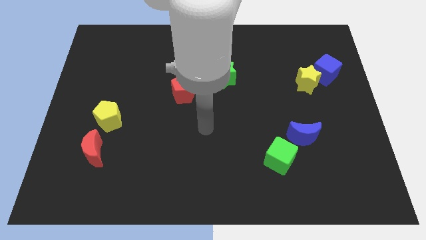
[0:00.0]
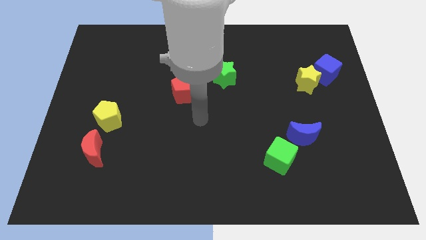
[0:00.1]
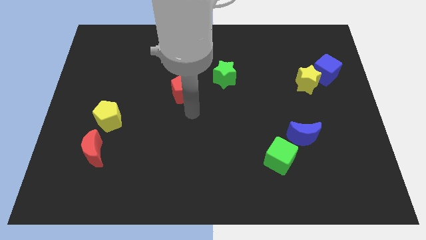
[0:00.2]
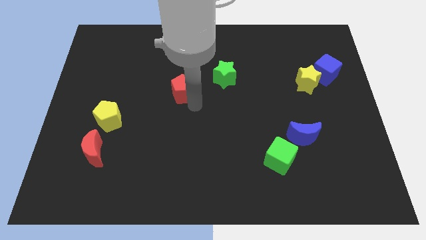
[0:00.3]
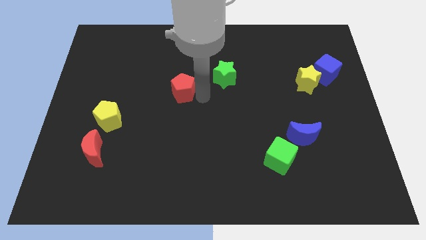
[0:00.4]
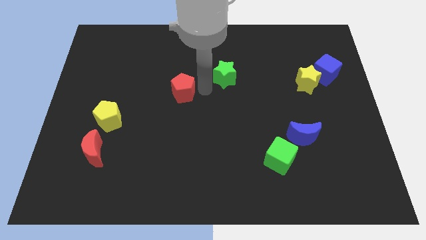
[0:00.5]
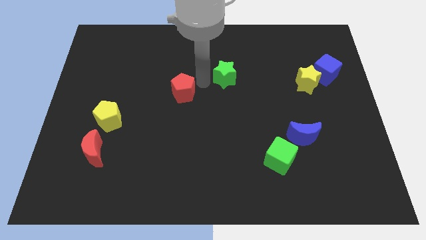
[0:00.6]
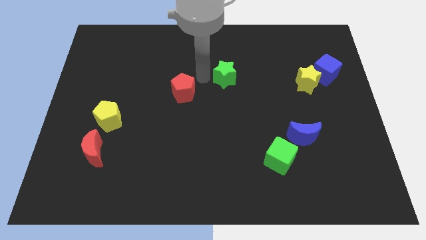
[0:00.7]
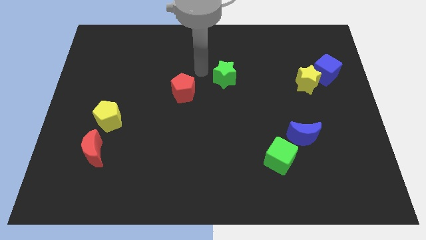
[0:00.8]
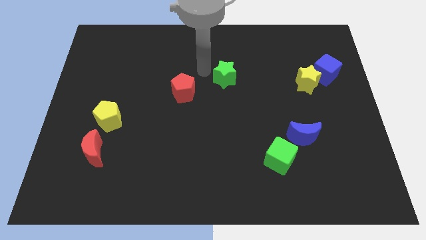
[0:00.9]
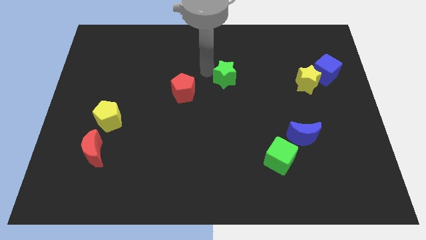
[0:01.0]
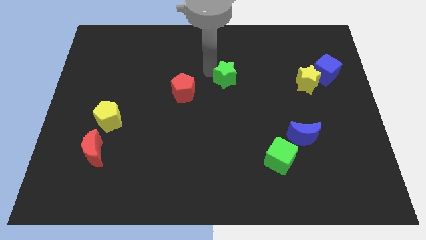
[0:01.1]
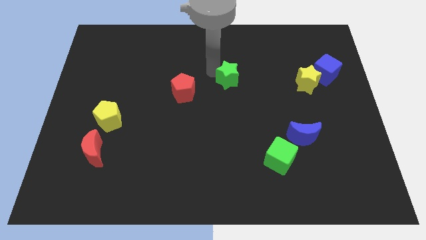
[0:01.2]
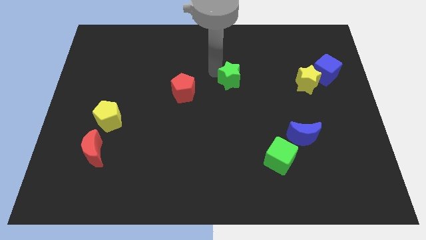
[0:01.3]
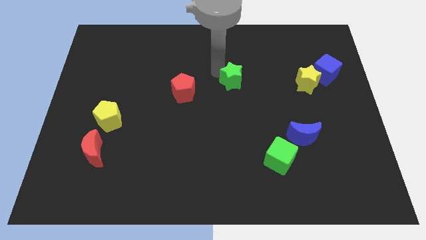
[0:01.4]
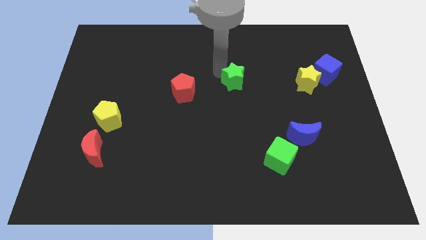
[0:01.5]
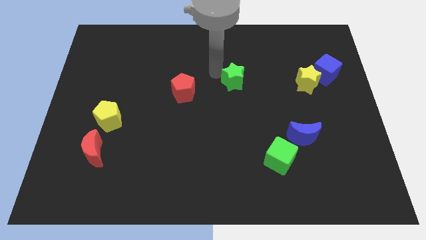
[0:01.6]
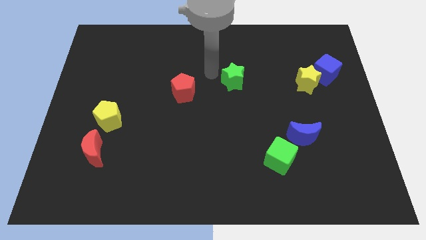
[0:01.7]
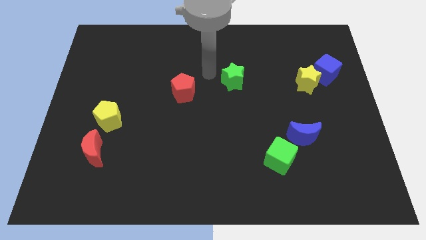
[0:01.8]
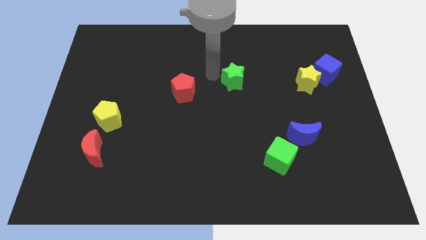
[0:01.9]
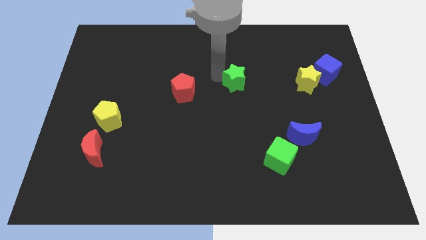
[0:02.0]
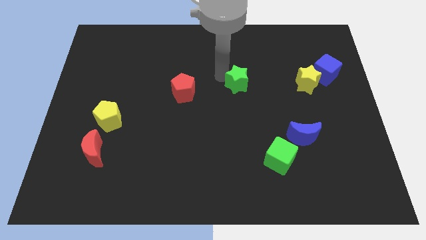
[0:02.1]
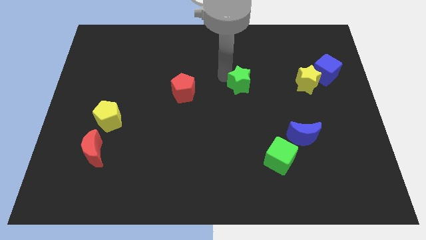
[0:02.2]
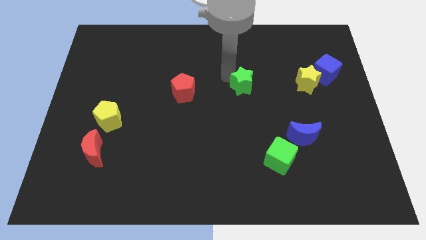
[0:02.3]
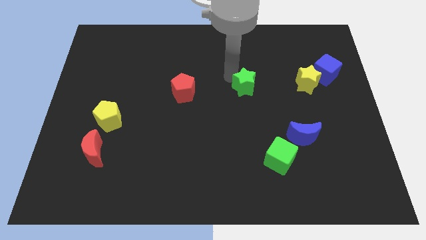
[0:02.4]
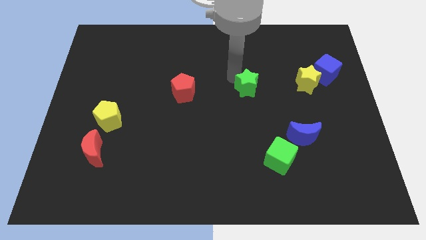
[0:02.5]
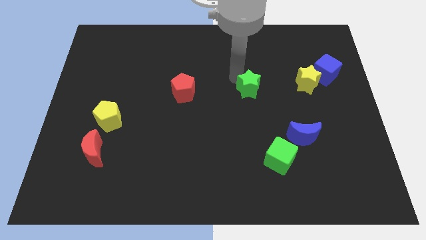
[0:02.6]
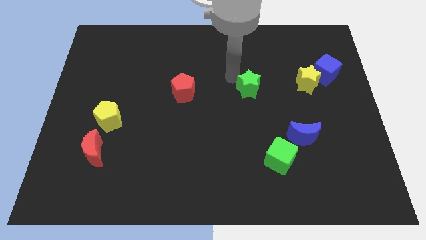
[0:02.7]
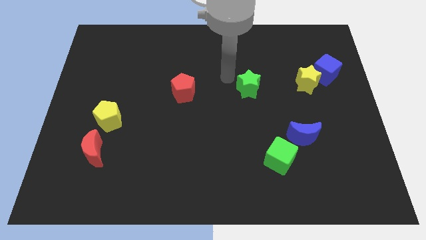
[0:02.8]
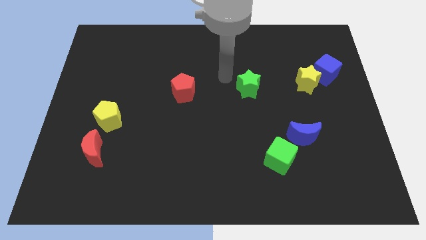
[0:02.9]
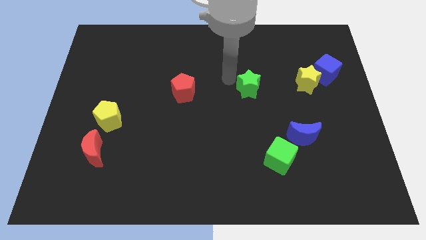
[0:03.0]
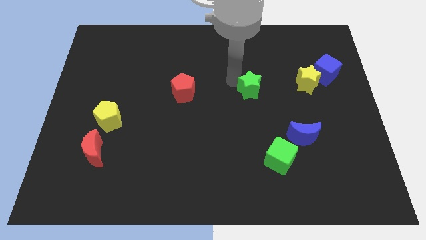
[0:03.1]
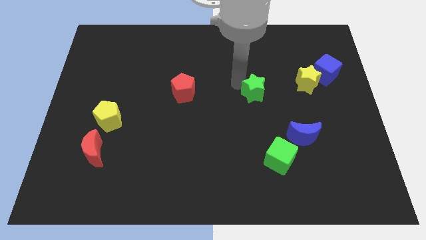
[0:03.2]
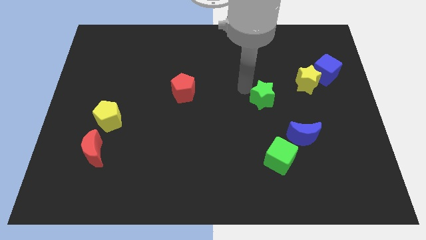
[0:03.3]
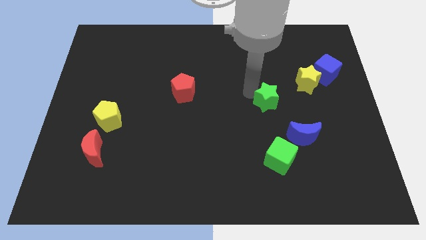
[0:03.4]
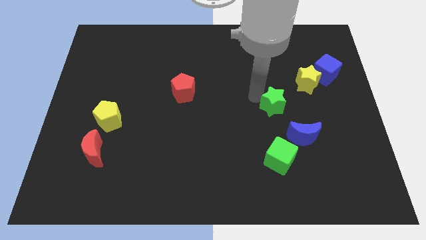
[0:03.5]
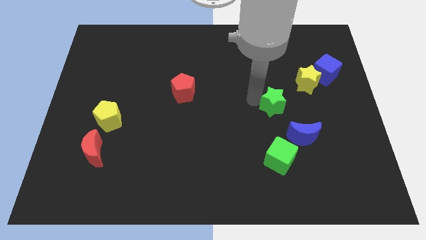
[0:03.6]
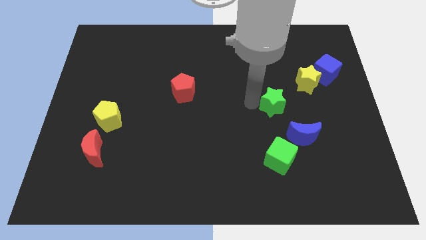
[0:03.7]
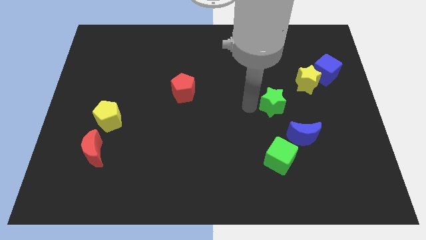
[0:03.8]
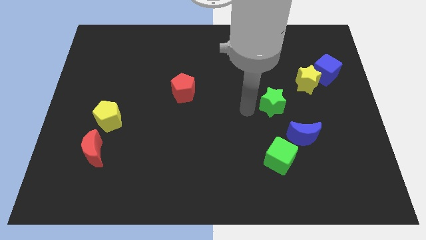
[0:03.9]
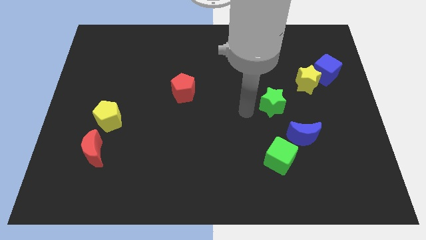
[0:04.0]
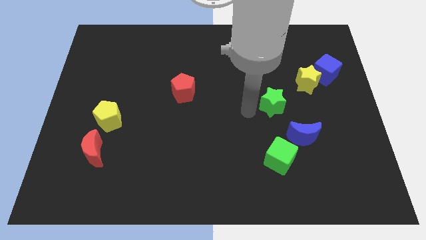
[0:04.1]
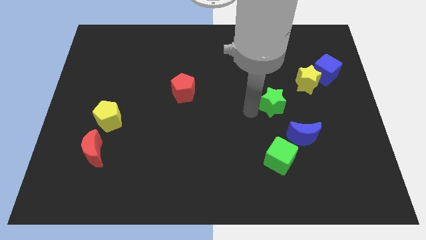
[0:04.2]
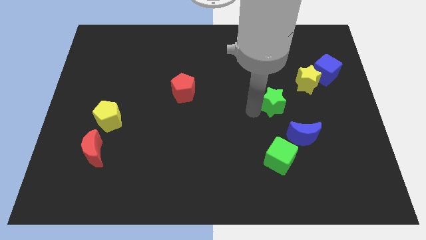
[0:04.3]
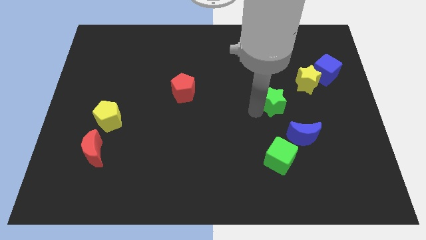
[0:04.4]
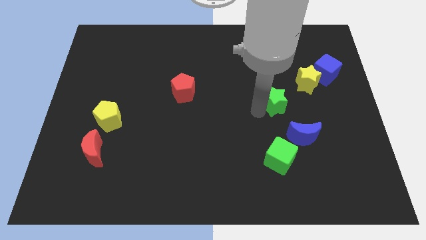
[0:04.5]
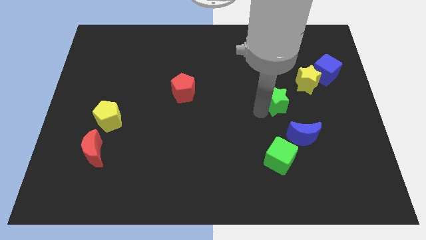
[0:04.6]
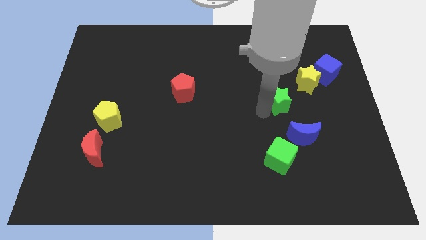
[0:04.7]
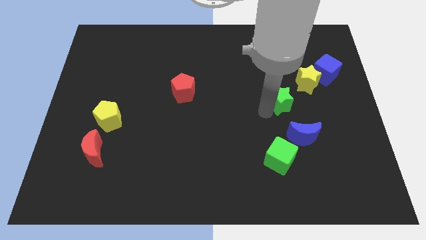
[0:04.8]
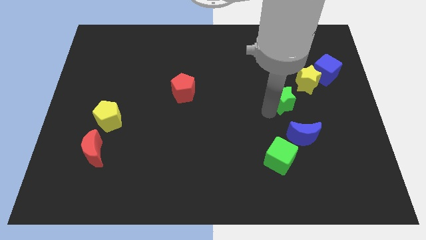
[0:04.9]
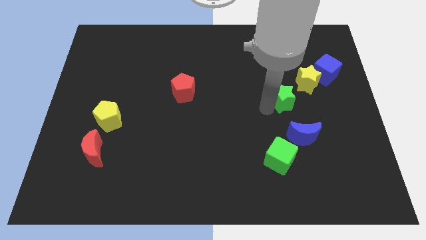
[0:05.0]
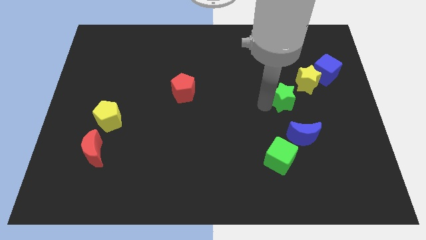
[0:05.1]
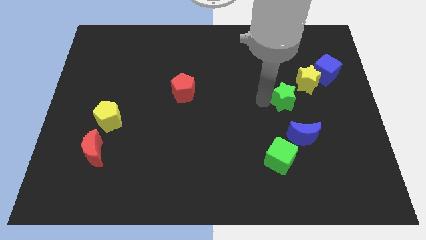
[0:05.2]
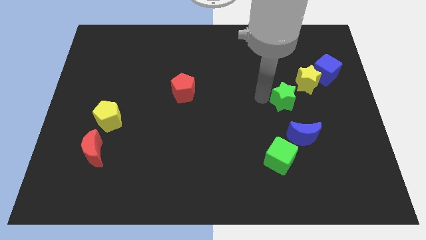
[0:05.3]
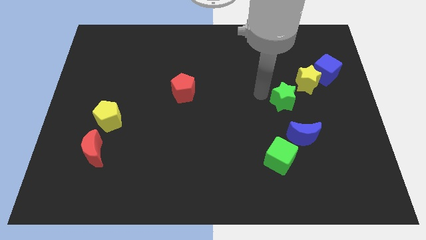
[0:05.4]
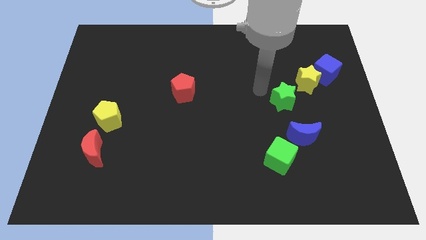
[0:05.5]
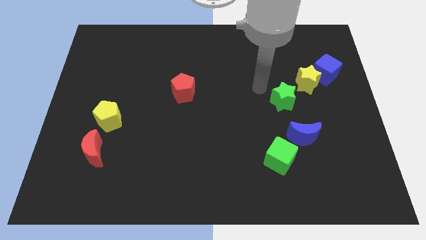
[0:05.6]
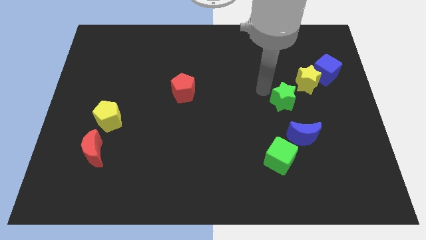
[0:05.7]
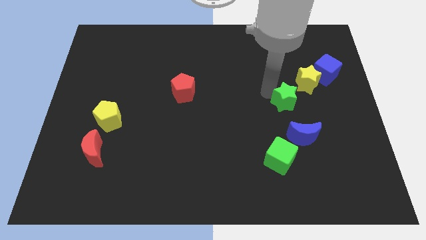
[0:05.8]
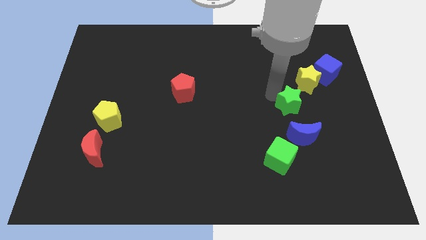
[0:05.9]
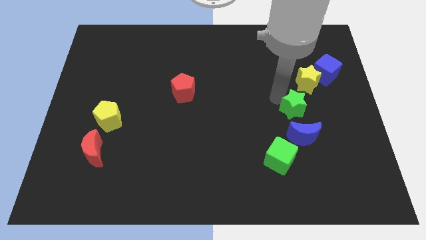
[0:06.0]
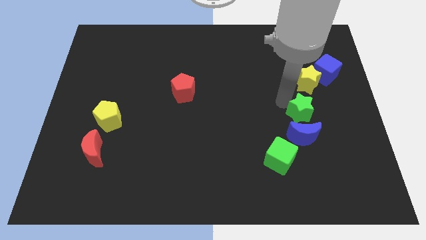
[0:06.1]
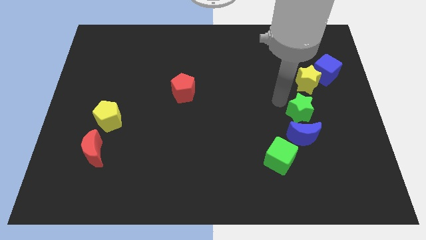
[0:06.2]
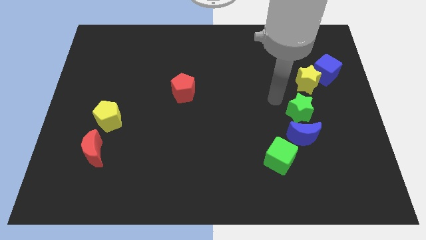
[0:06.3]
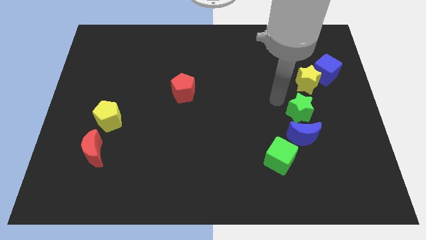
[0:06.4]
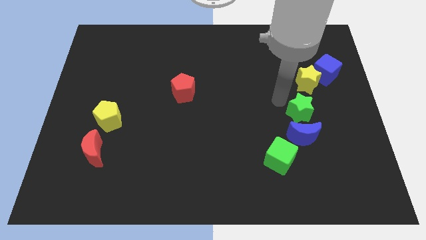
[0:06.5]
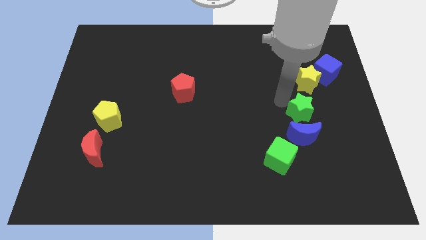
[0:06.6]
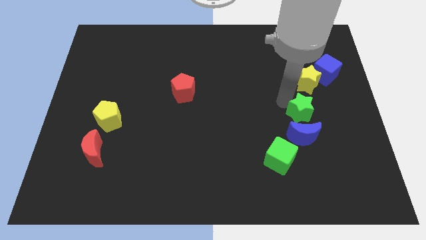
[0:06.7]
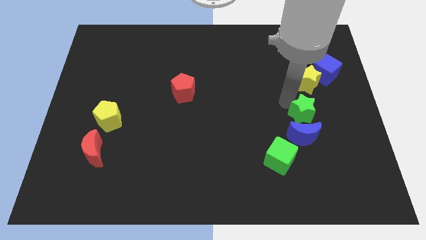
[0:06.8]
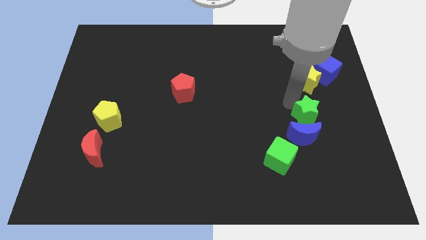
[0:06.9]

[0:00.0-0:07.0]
move the green star down and to the right

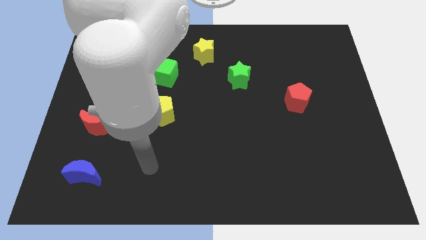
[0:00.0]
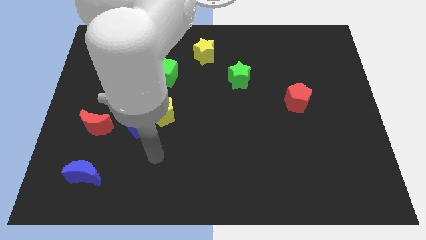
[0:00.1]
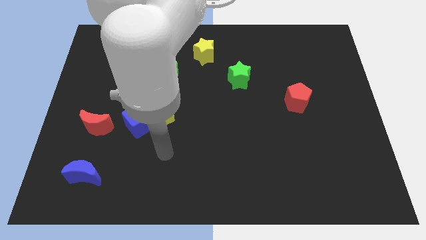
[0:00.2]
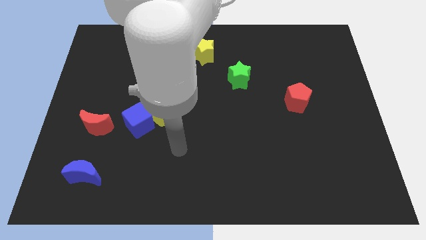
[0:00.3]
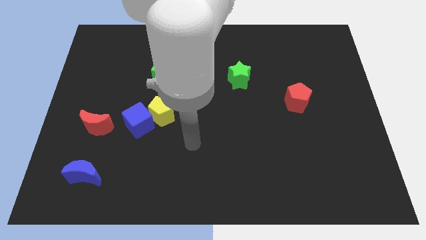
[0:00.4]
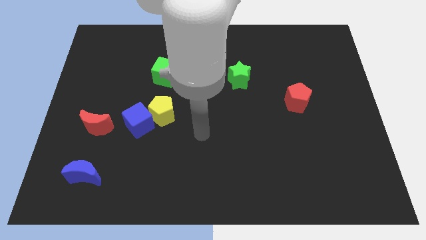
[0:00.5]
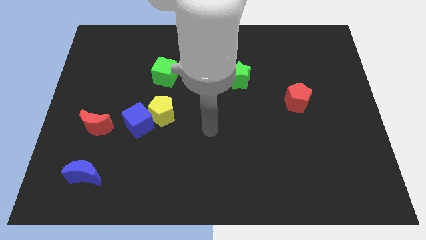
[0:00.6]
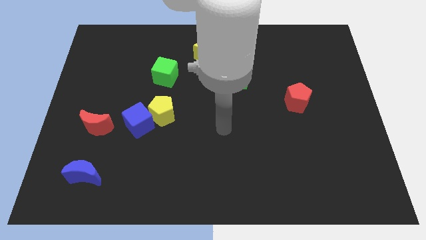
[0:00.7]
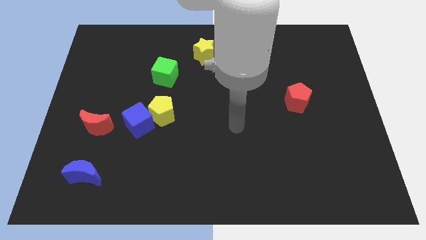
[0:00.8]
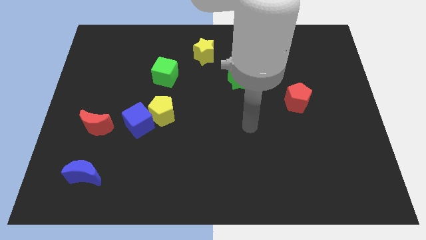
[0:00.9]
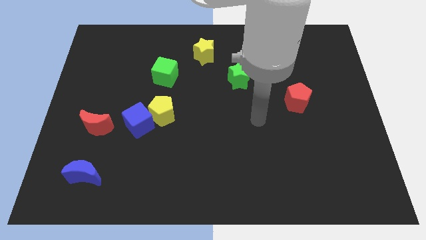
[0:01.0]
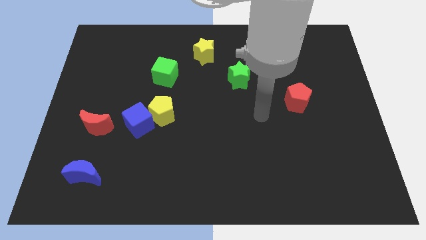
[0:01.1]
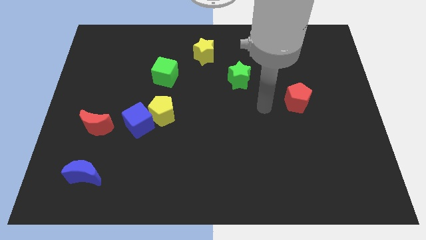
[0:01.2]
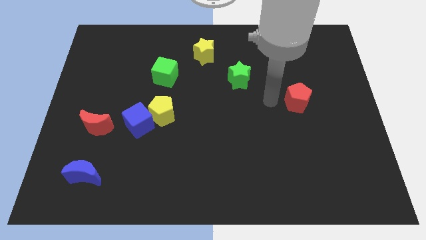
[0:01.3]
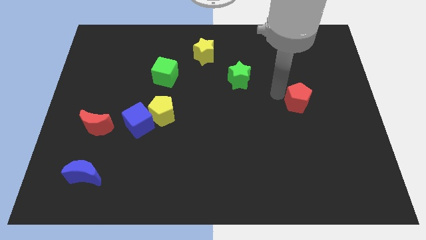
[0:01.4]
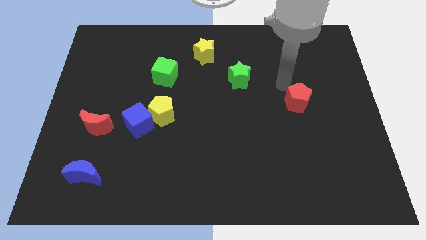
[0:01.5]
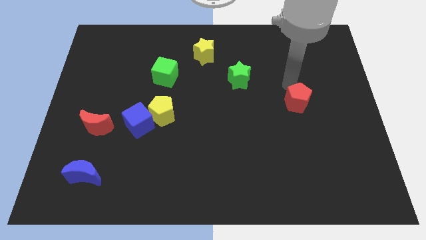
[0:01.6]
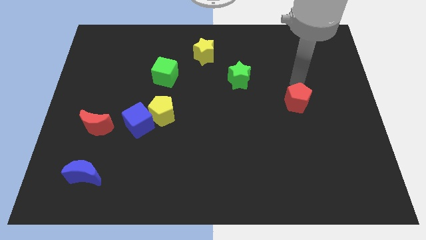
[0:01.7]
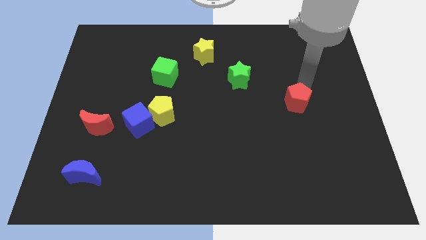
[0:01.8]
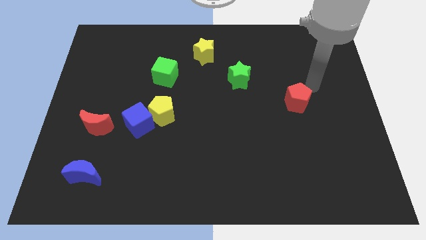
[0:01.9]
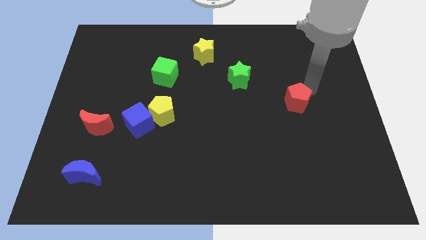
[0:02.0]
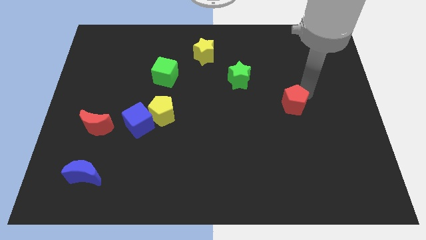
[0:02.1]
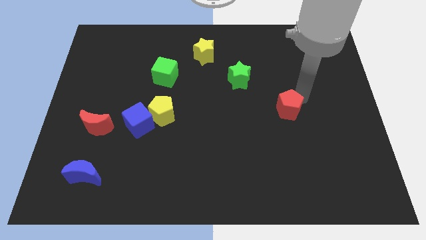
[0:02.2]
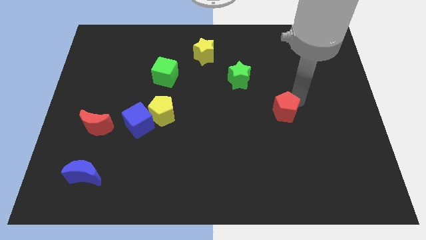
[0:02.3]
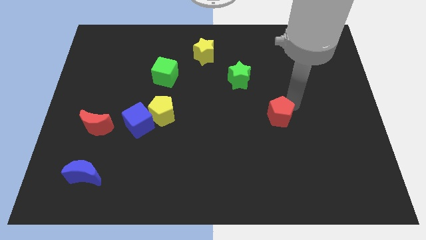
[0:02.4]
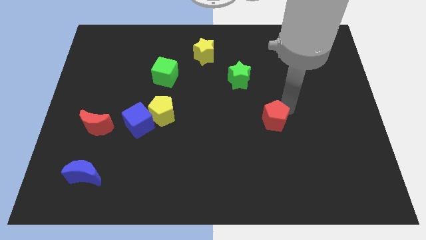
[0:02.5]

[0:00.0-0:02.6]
move the red pentagon downwards and left diagonally a little bit
